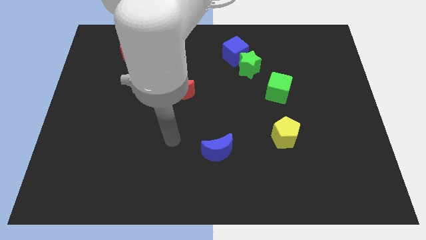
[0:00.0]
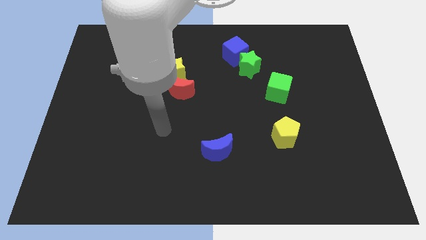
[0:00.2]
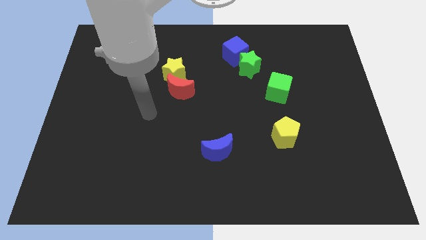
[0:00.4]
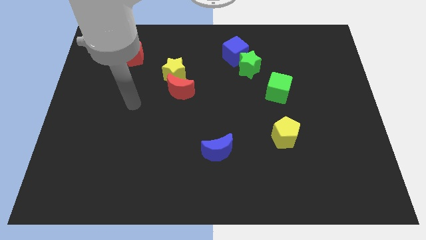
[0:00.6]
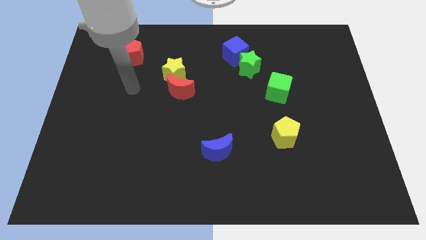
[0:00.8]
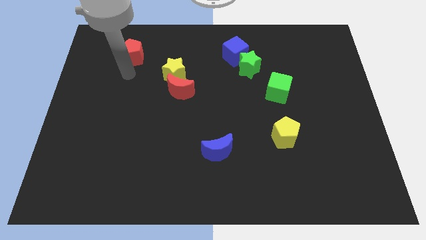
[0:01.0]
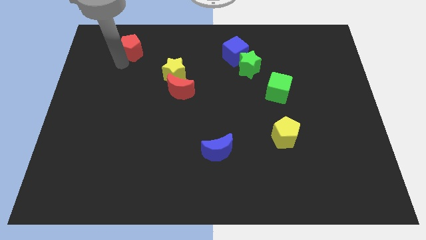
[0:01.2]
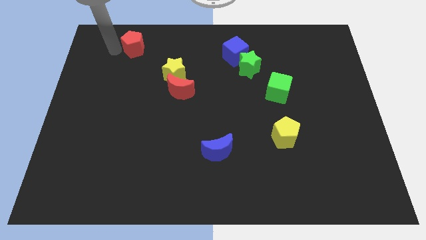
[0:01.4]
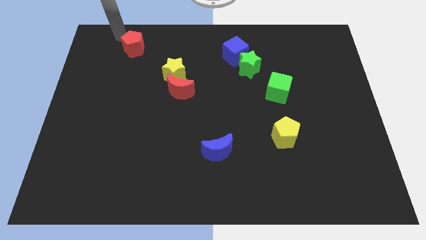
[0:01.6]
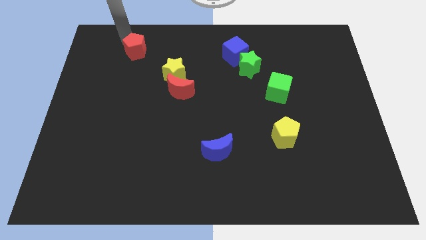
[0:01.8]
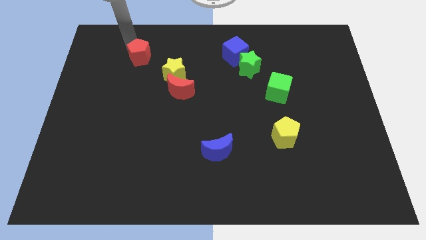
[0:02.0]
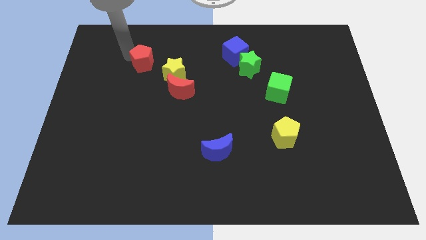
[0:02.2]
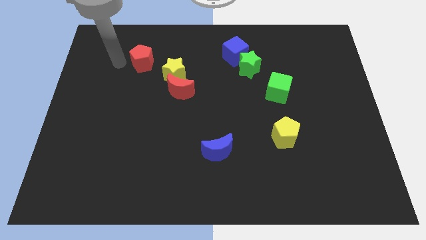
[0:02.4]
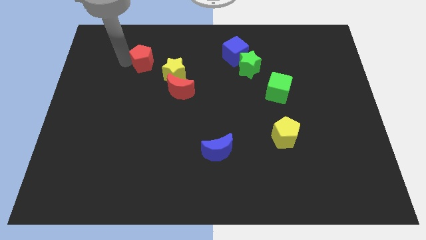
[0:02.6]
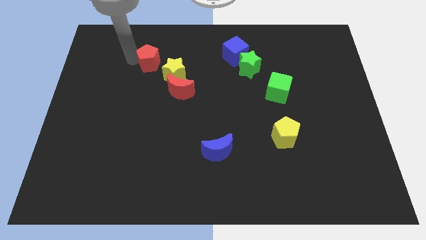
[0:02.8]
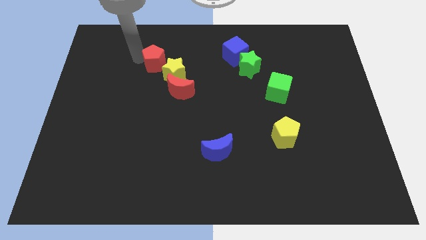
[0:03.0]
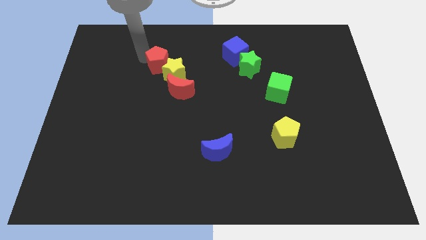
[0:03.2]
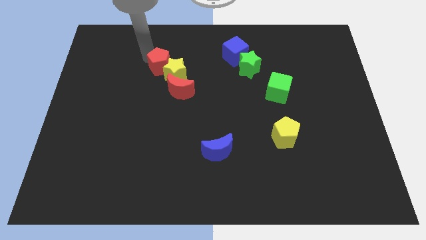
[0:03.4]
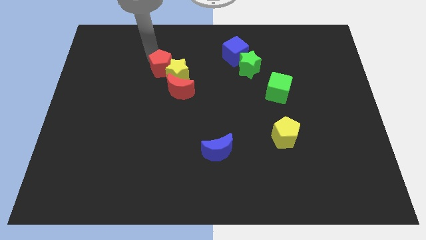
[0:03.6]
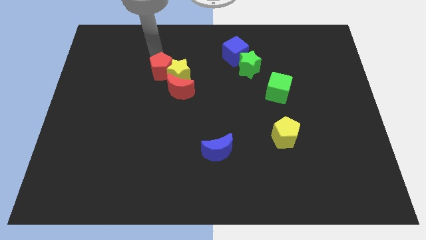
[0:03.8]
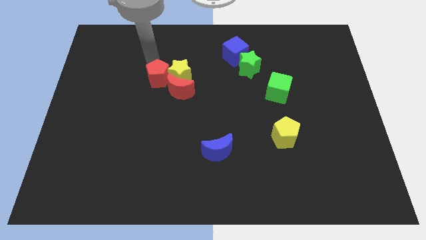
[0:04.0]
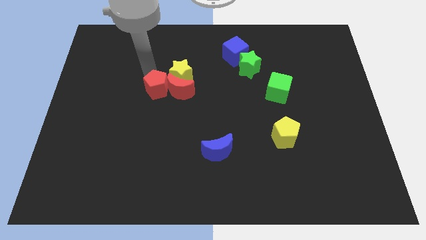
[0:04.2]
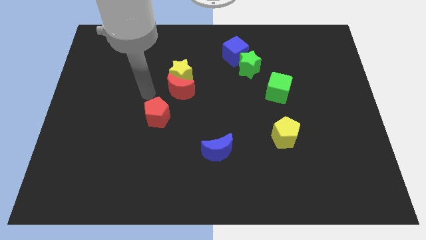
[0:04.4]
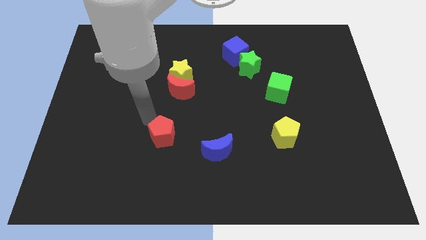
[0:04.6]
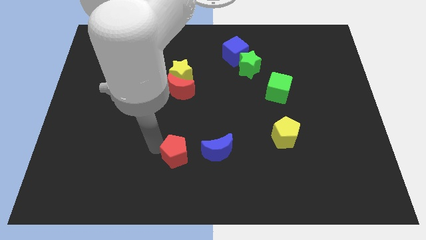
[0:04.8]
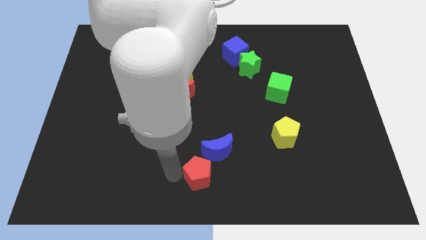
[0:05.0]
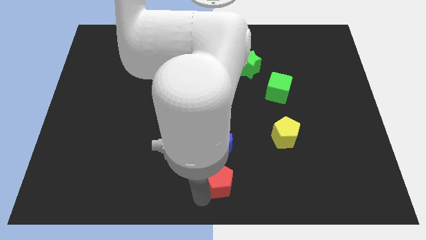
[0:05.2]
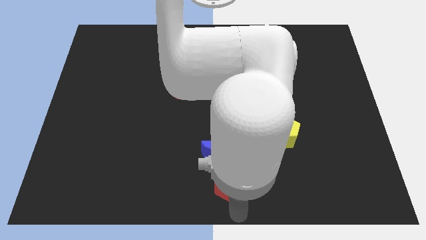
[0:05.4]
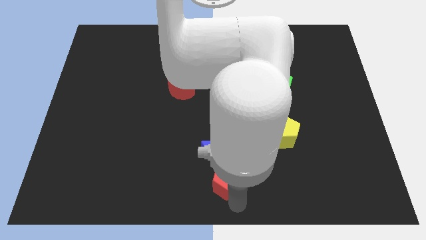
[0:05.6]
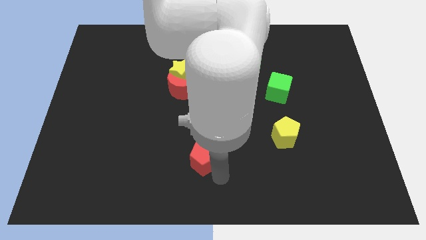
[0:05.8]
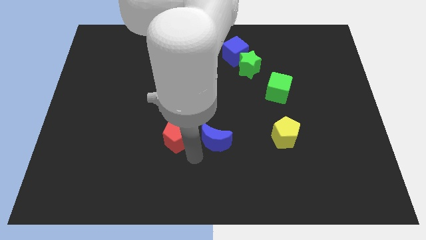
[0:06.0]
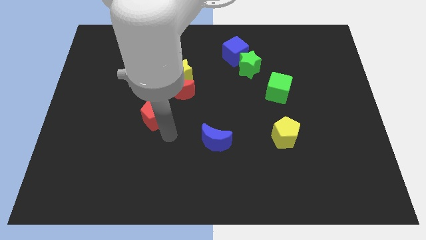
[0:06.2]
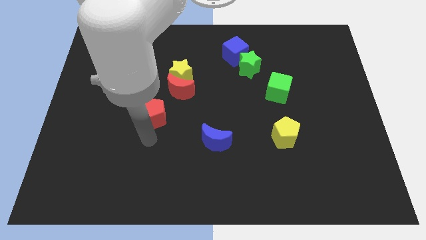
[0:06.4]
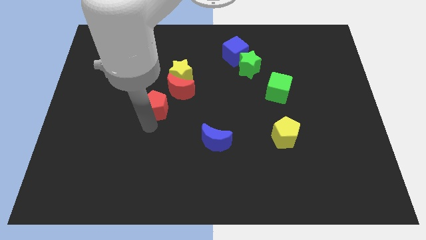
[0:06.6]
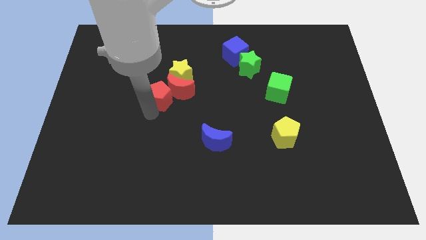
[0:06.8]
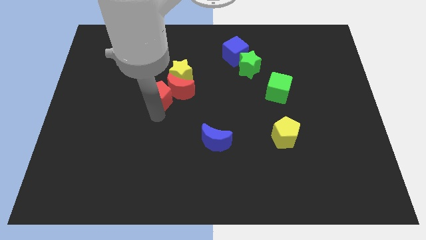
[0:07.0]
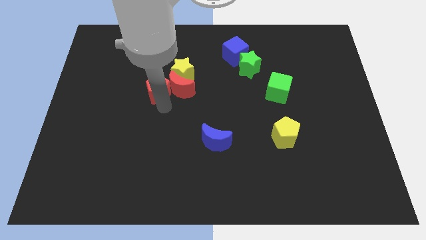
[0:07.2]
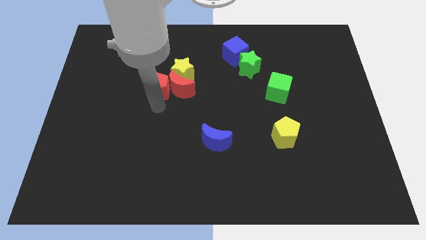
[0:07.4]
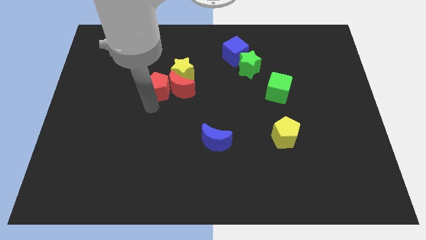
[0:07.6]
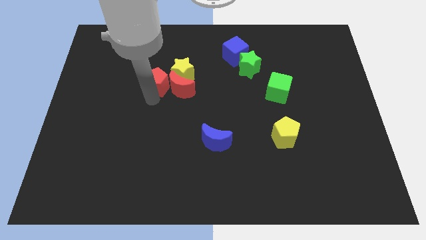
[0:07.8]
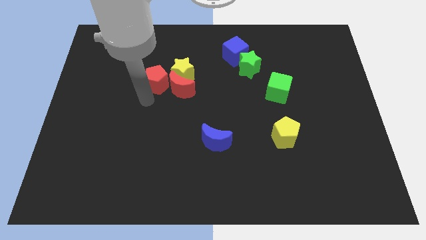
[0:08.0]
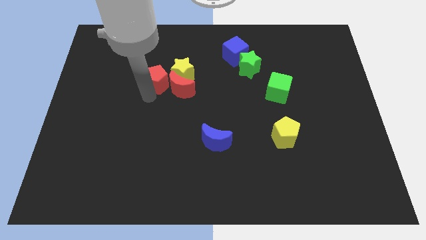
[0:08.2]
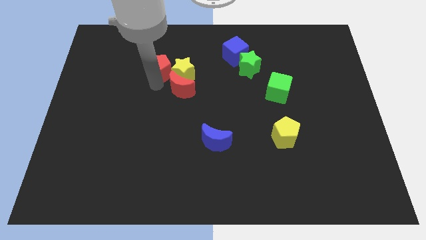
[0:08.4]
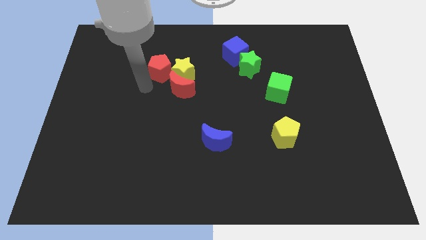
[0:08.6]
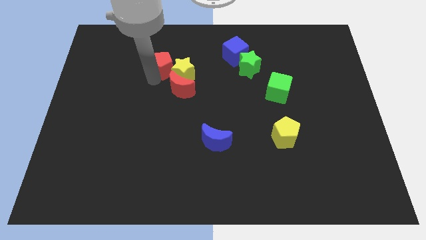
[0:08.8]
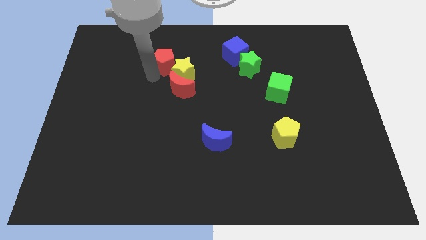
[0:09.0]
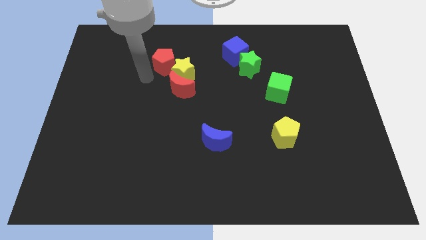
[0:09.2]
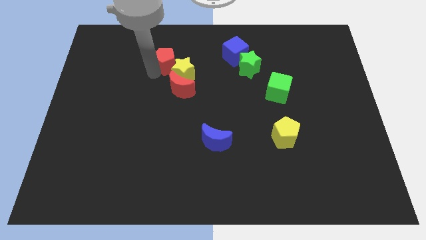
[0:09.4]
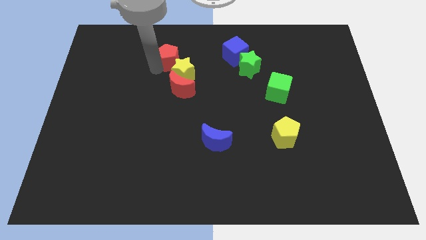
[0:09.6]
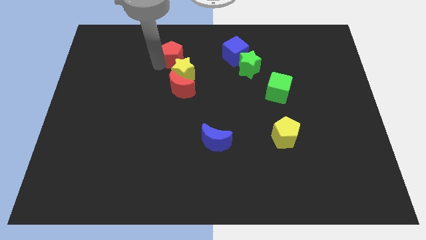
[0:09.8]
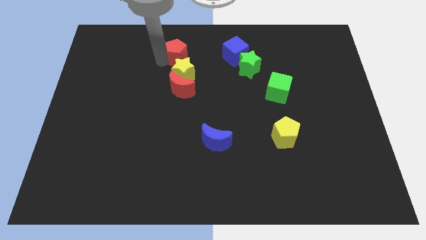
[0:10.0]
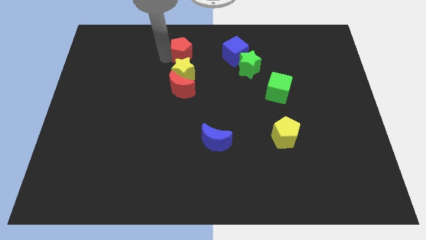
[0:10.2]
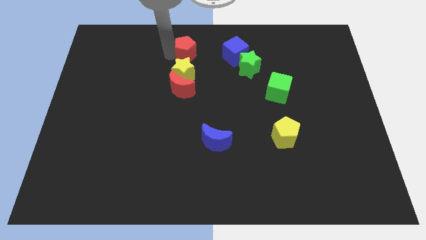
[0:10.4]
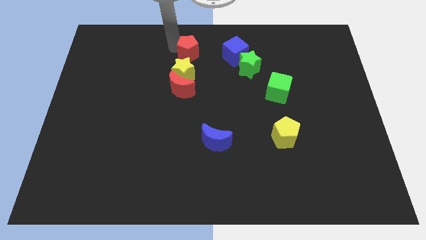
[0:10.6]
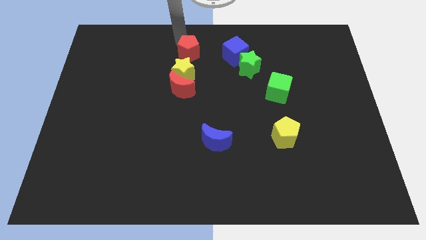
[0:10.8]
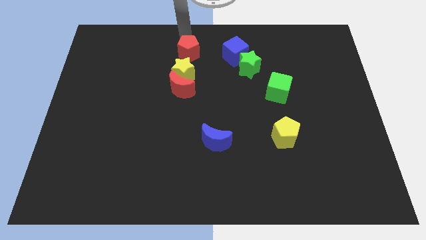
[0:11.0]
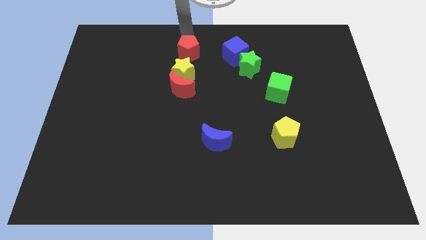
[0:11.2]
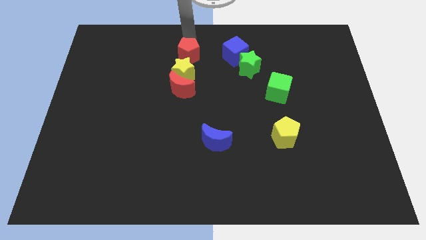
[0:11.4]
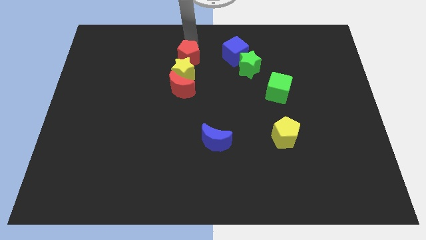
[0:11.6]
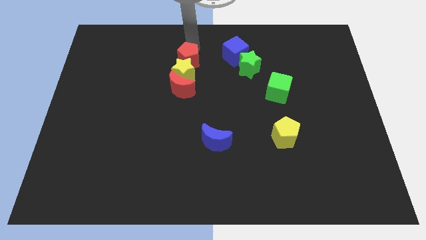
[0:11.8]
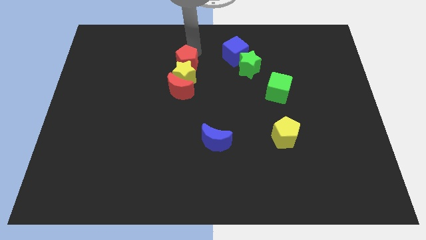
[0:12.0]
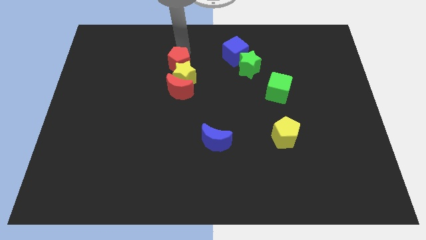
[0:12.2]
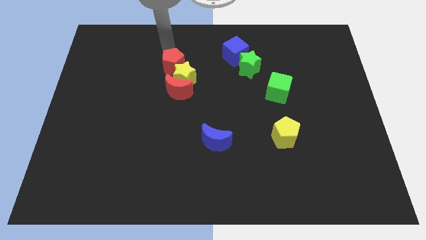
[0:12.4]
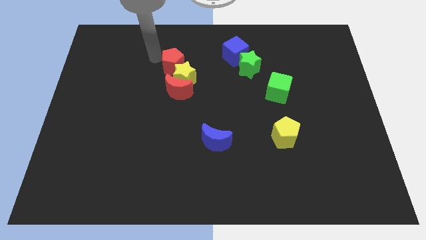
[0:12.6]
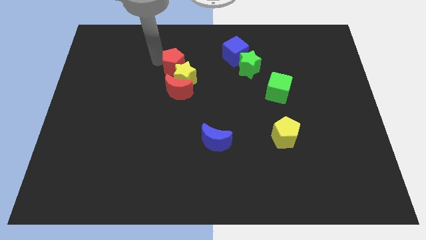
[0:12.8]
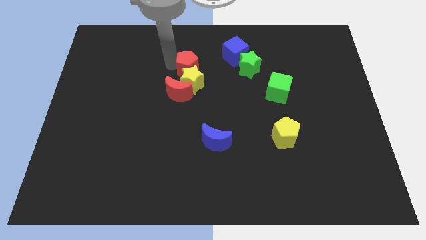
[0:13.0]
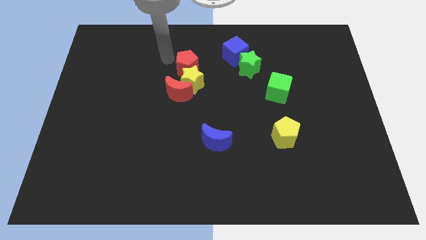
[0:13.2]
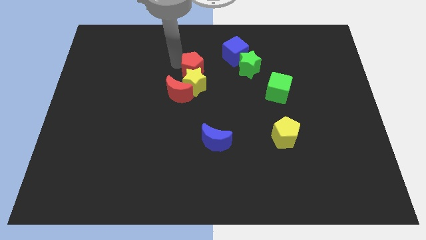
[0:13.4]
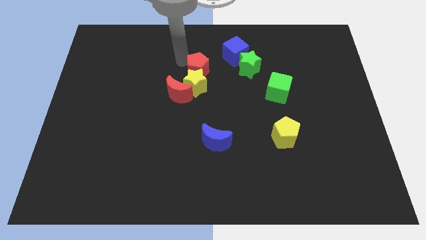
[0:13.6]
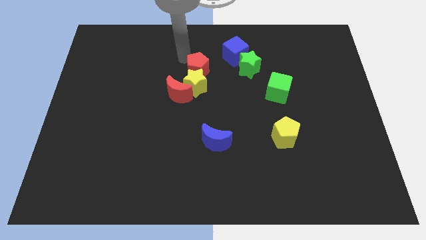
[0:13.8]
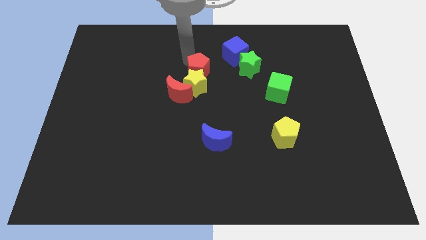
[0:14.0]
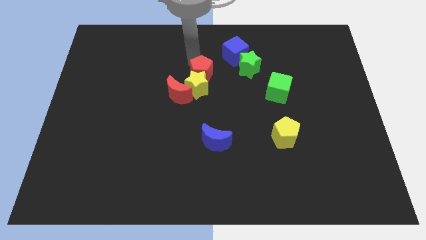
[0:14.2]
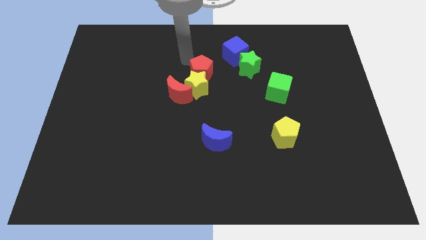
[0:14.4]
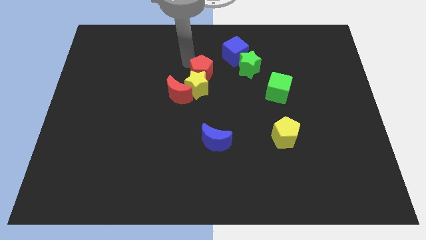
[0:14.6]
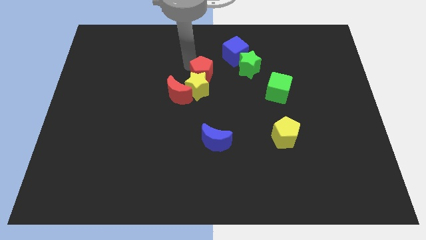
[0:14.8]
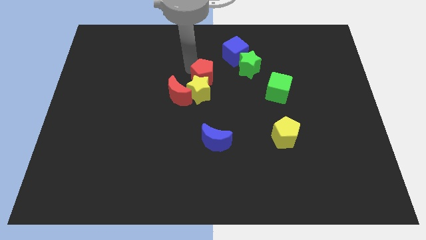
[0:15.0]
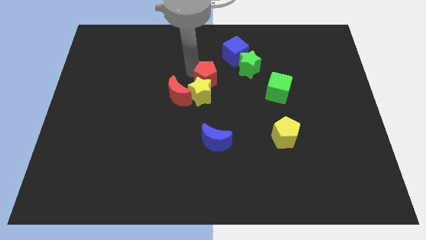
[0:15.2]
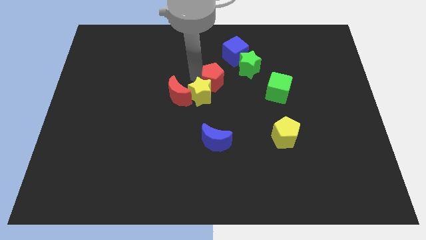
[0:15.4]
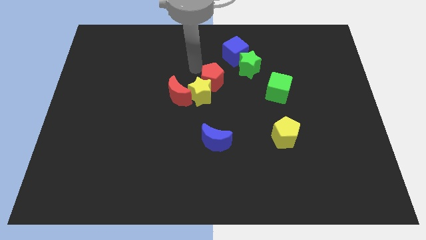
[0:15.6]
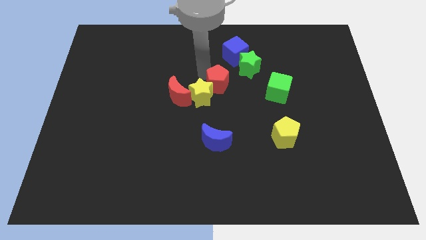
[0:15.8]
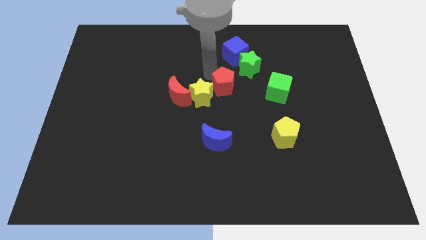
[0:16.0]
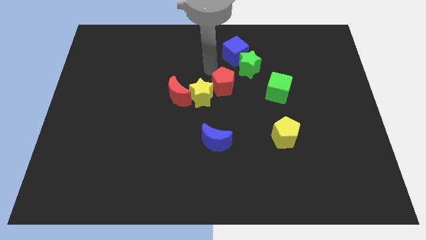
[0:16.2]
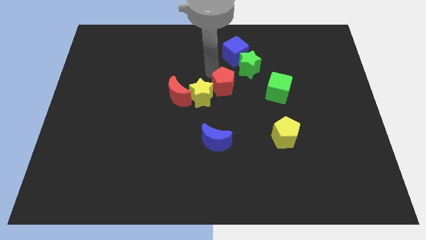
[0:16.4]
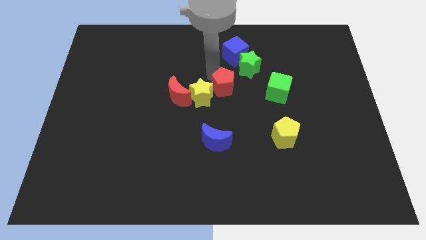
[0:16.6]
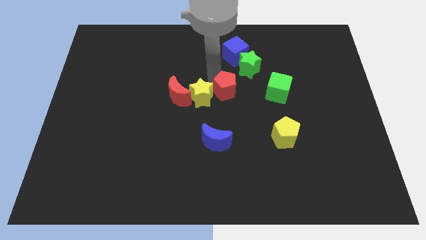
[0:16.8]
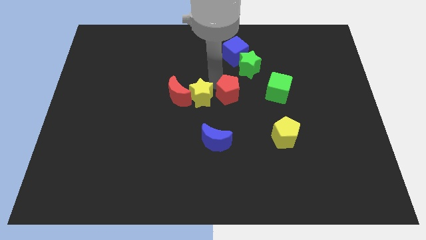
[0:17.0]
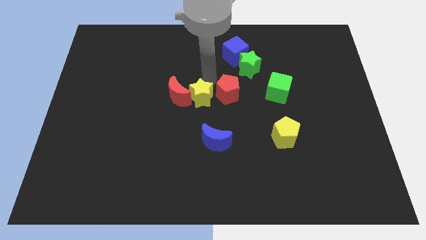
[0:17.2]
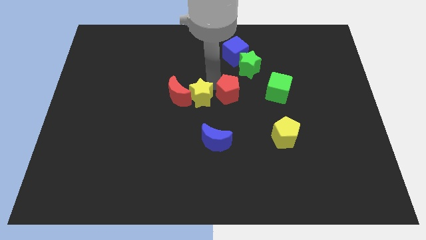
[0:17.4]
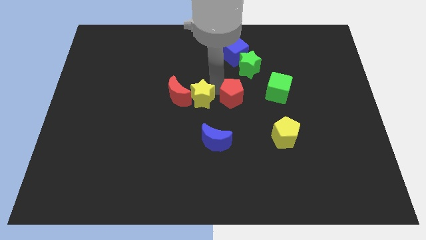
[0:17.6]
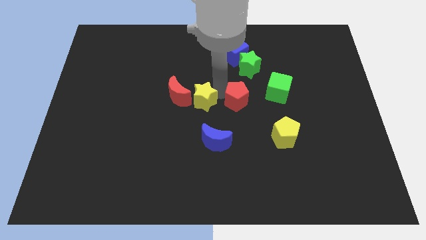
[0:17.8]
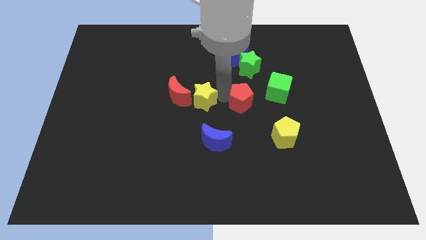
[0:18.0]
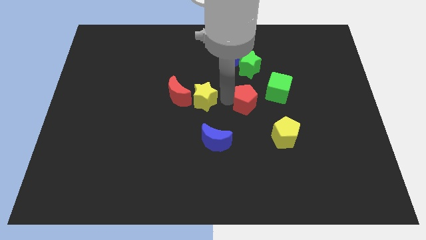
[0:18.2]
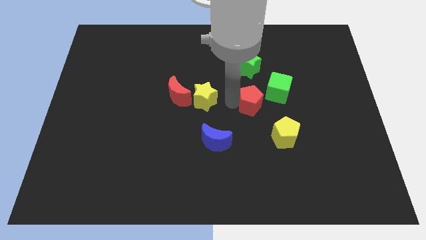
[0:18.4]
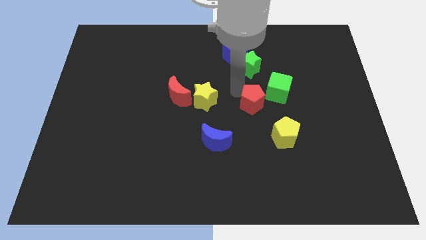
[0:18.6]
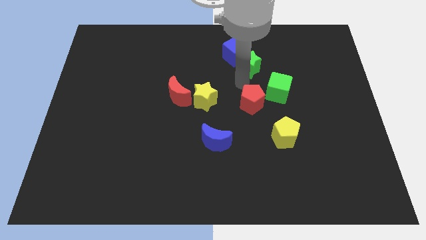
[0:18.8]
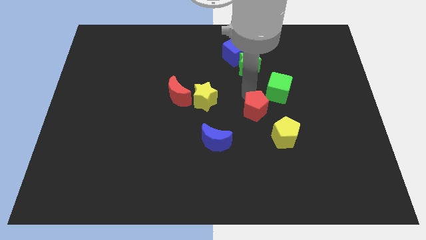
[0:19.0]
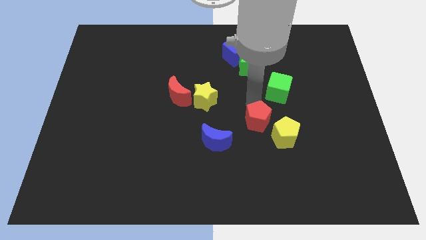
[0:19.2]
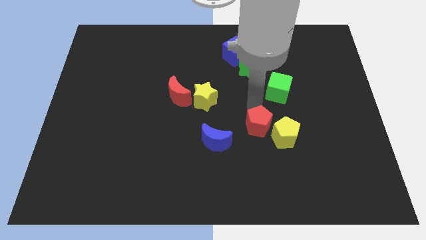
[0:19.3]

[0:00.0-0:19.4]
slide the red pentagon next to the yellow pentagon
